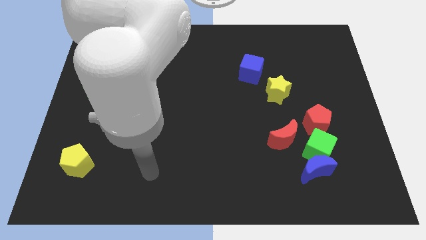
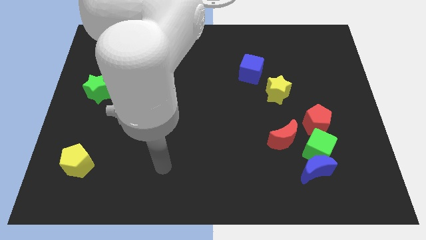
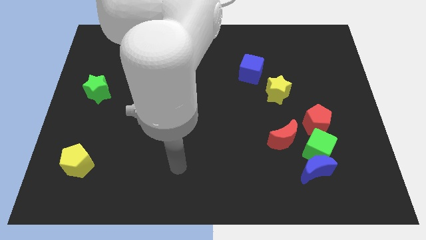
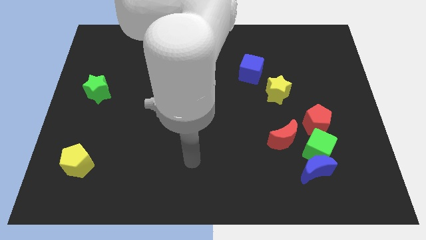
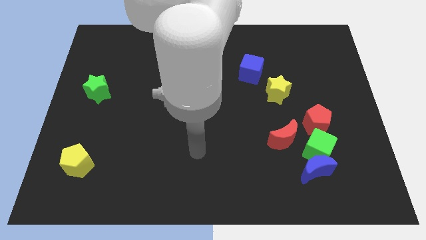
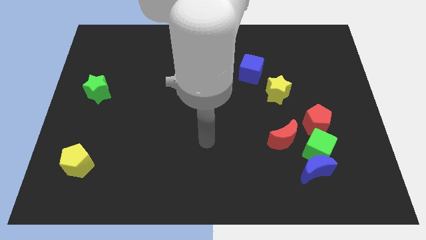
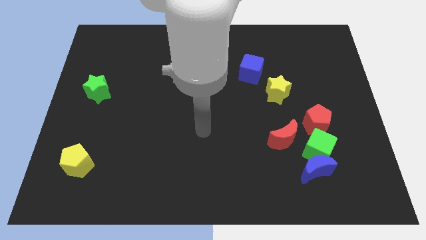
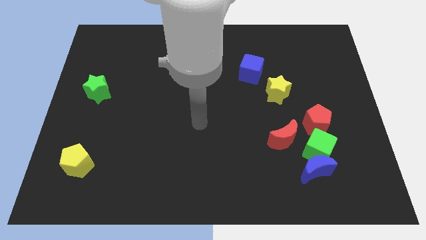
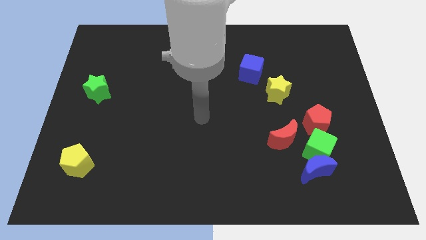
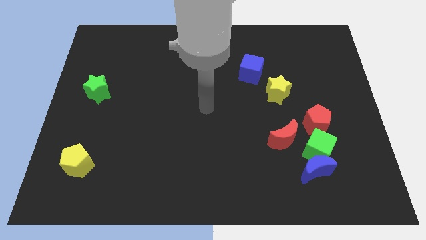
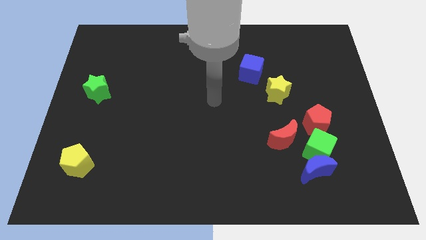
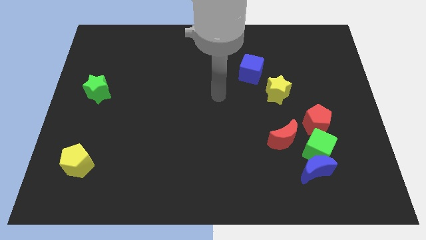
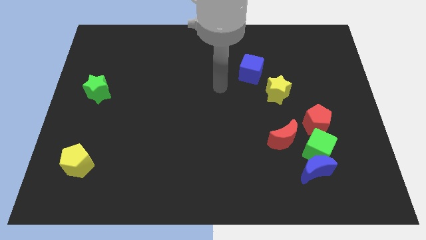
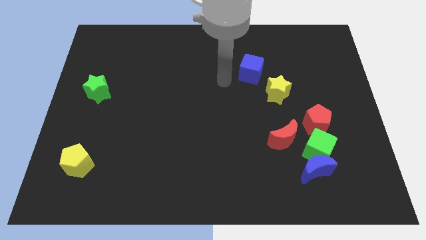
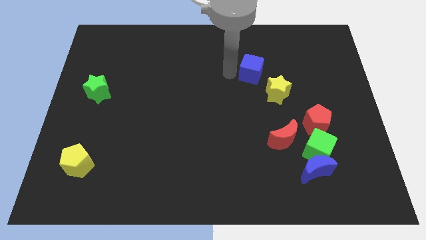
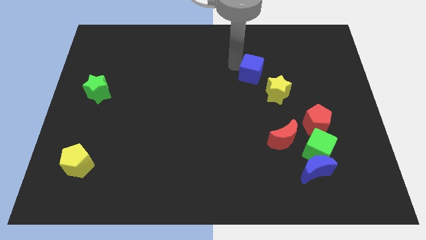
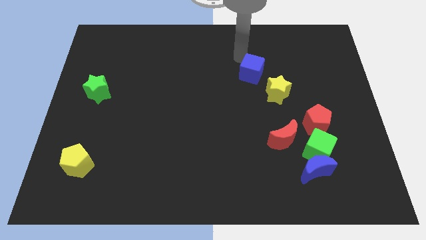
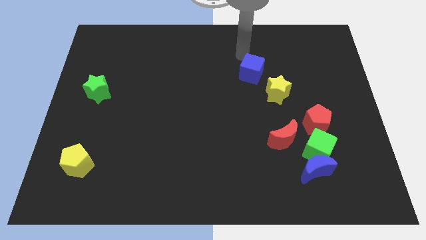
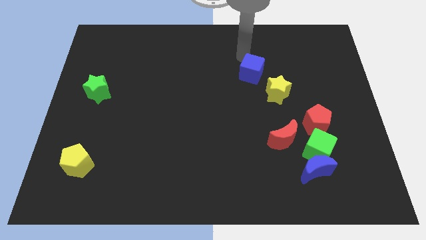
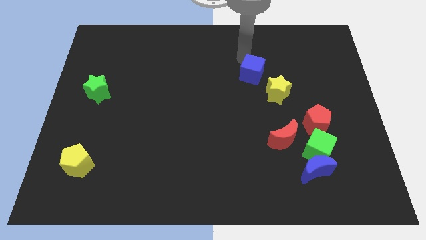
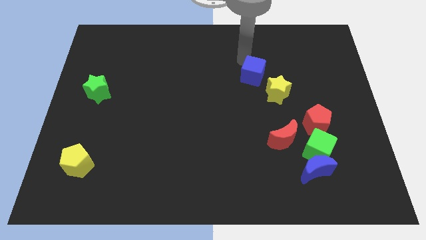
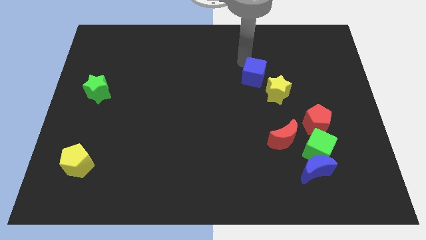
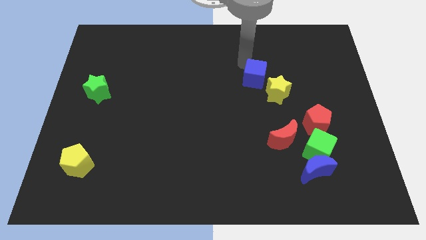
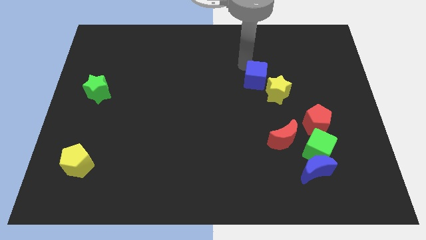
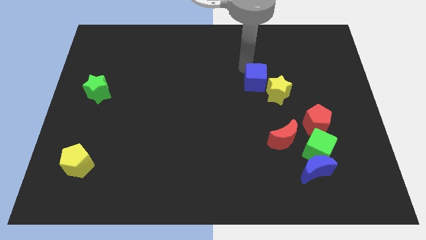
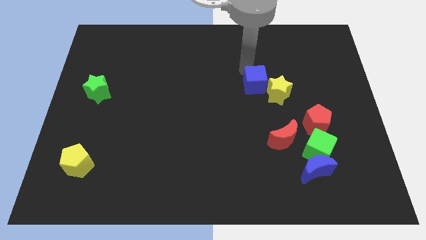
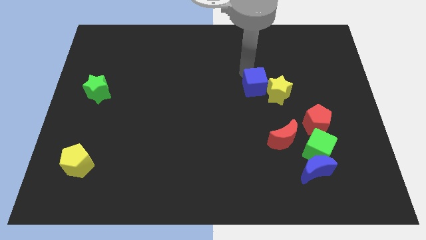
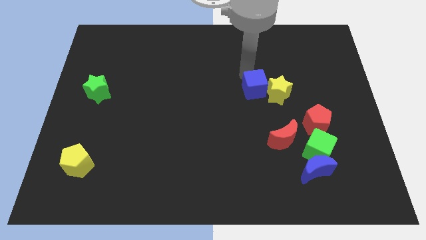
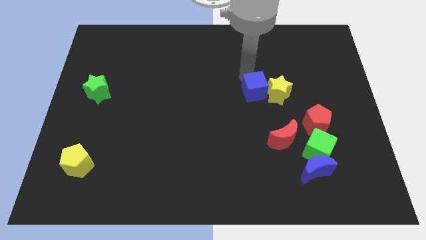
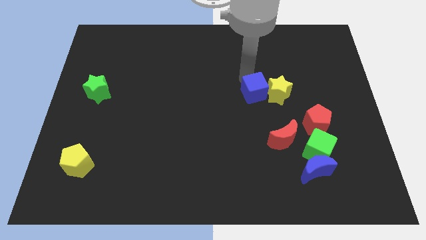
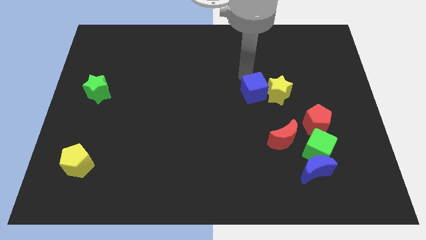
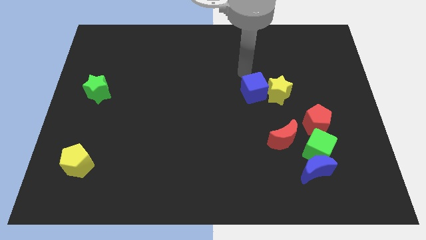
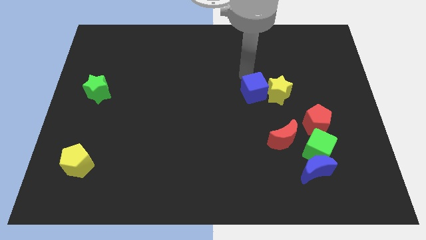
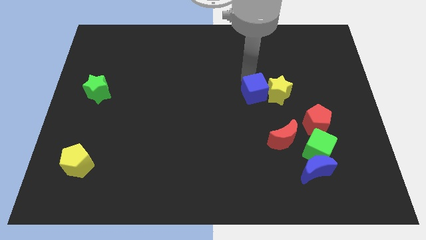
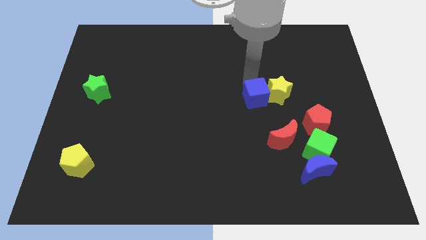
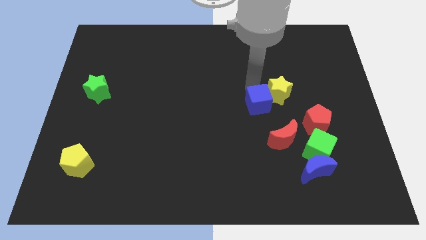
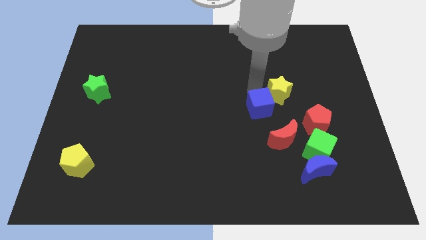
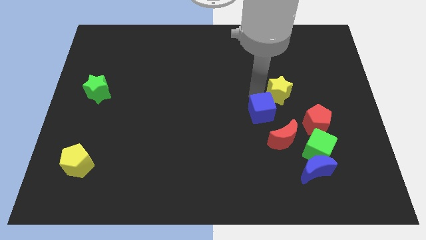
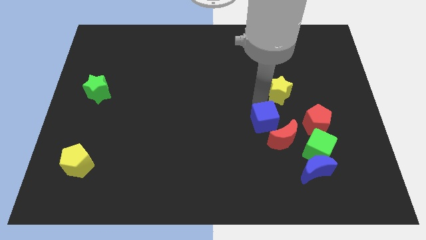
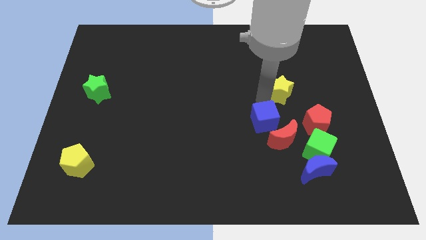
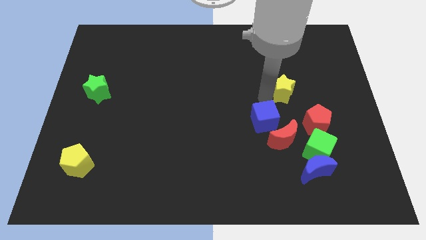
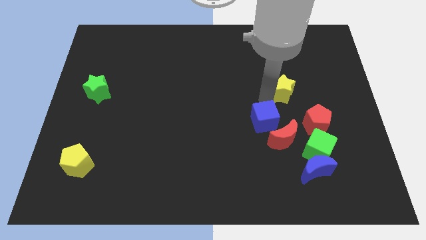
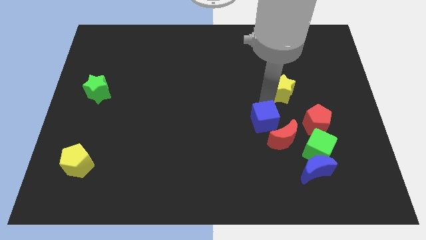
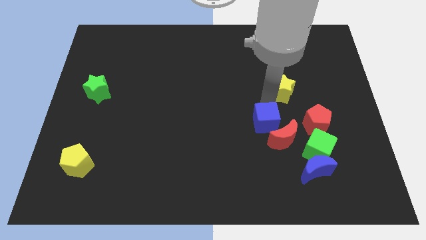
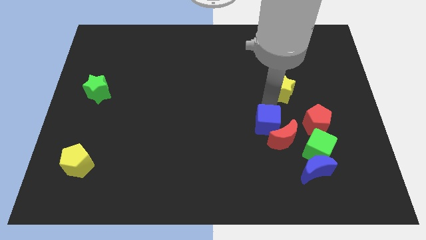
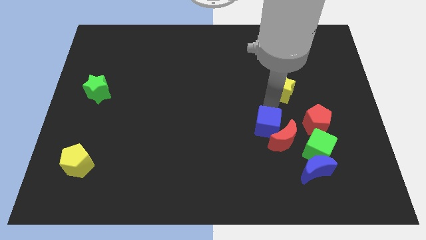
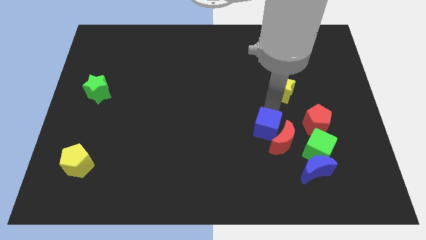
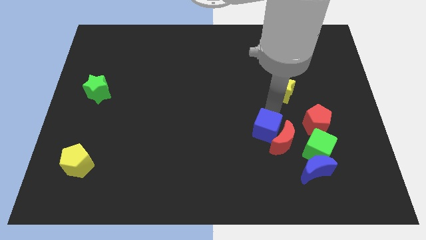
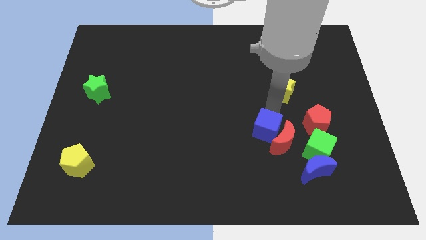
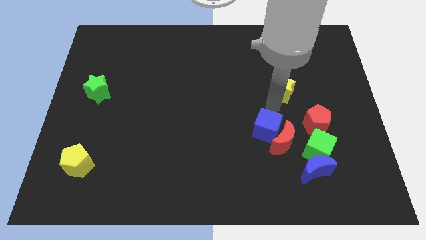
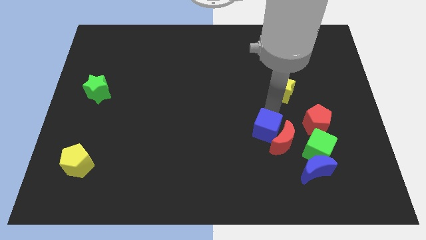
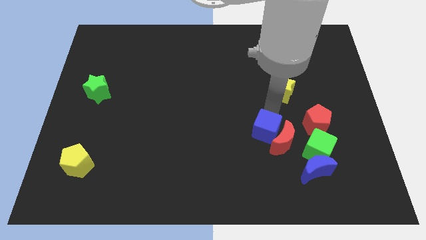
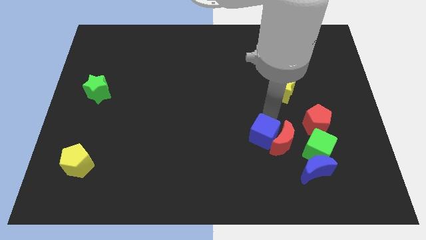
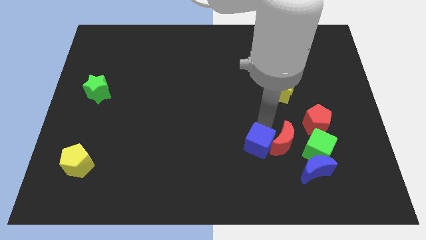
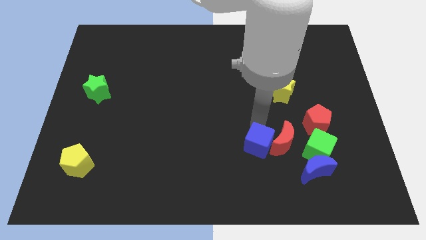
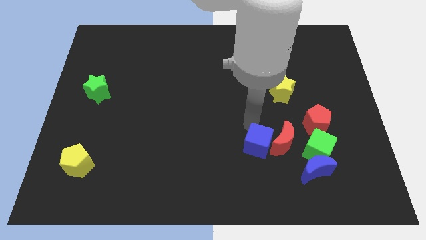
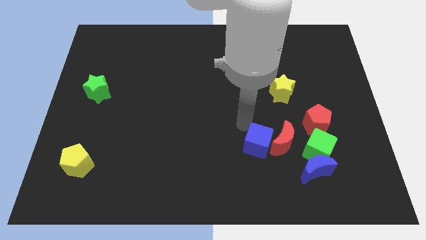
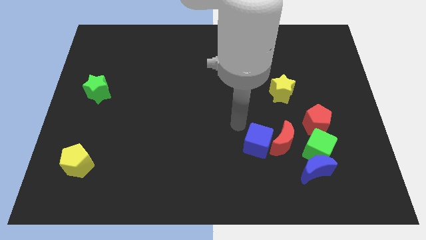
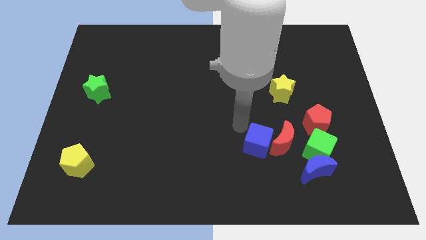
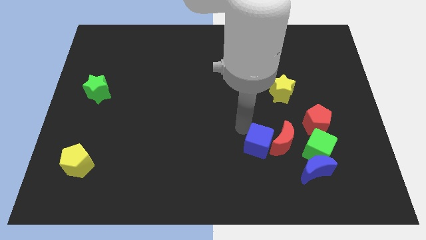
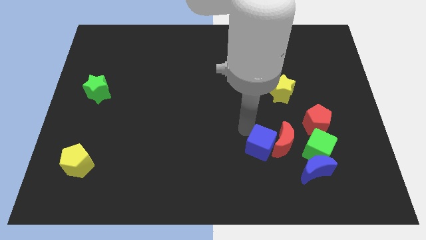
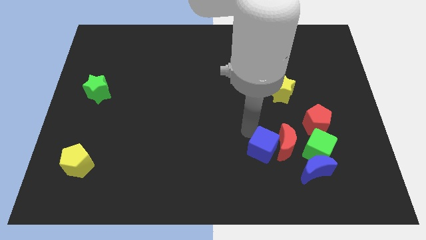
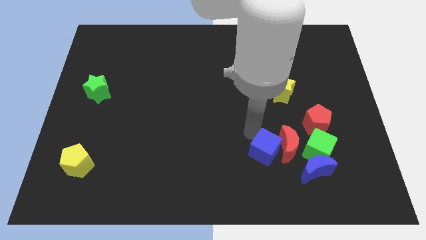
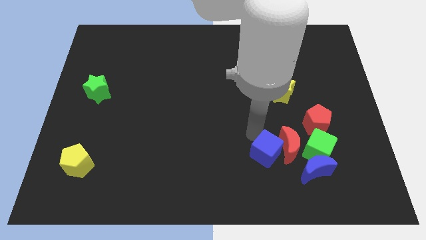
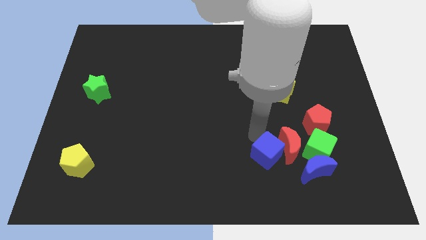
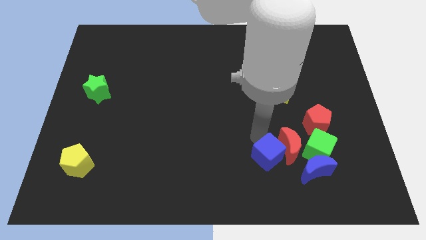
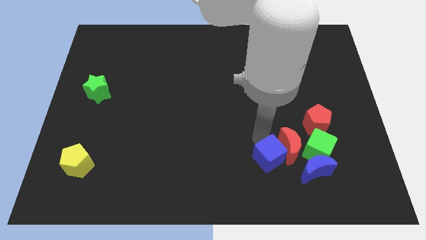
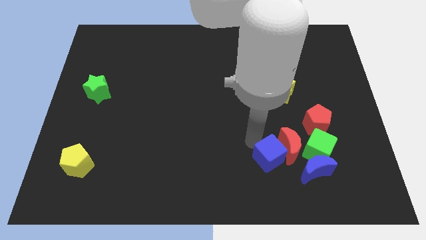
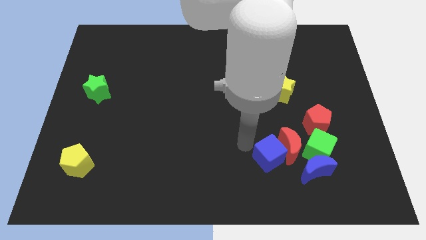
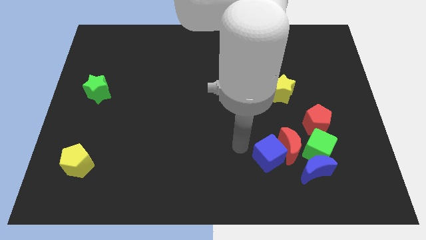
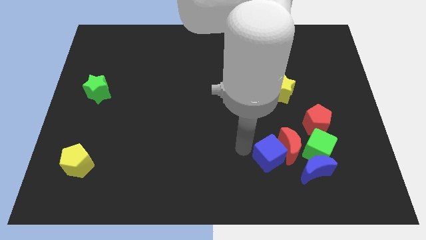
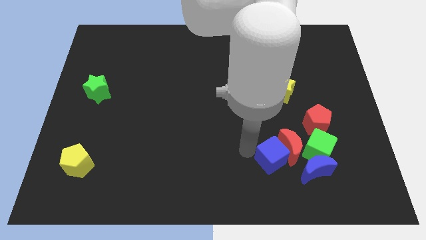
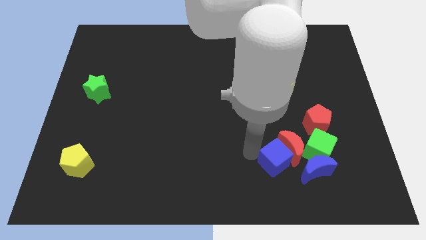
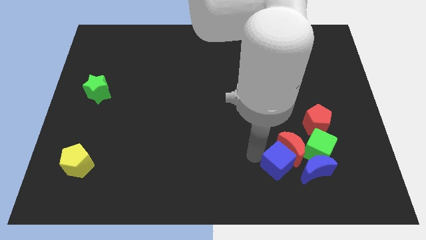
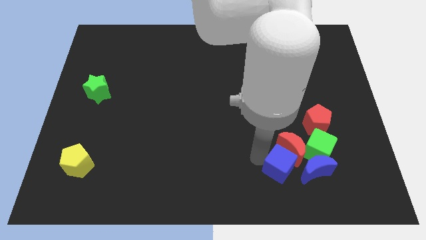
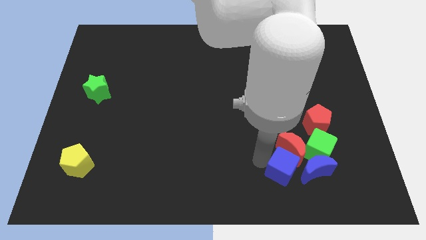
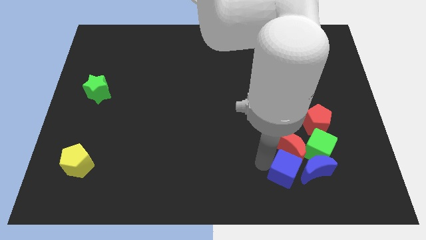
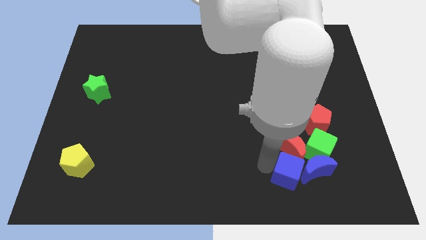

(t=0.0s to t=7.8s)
slide the blue cube towards the blue moon
